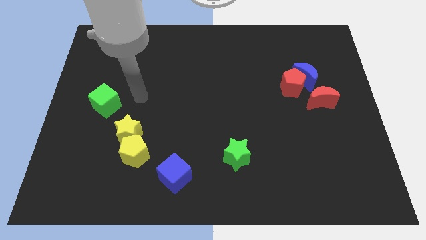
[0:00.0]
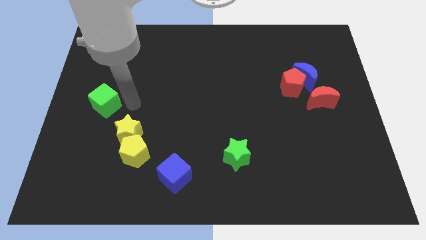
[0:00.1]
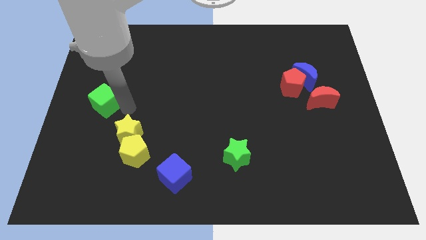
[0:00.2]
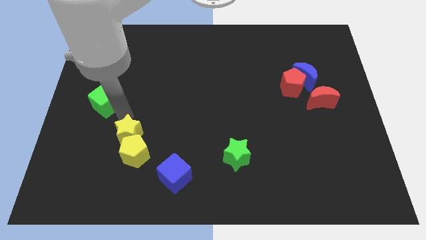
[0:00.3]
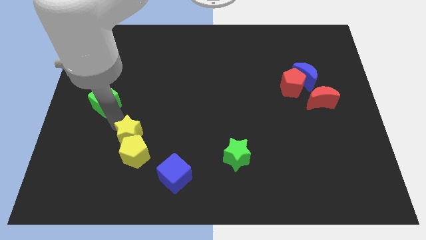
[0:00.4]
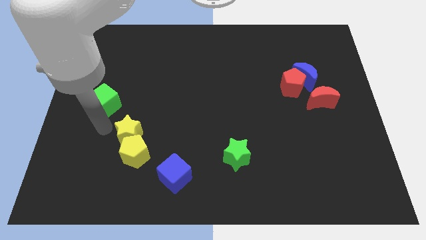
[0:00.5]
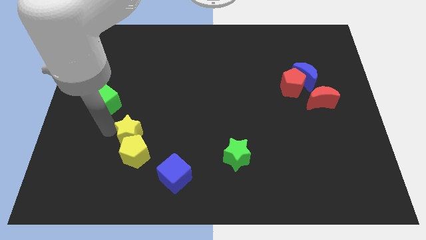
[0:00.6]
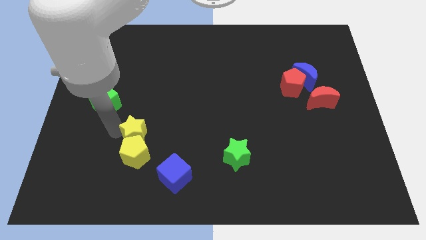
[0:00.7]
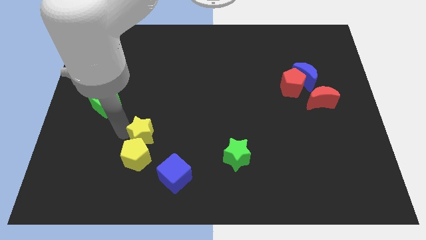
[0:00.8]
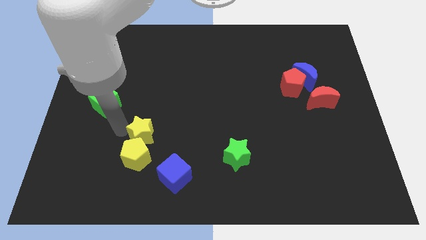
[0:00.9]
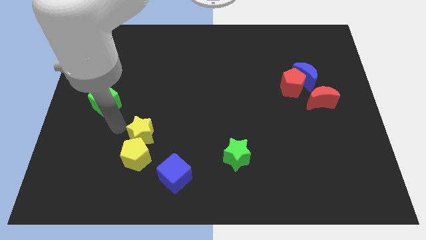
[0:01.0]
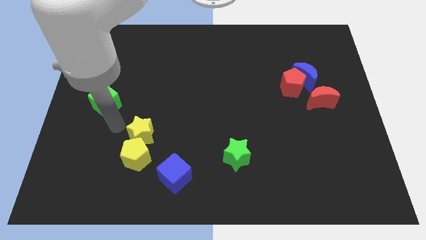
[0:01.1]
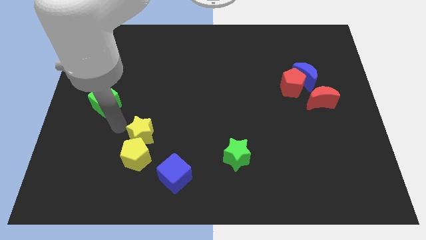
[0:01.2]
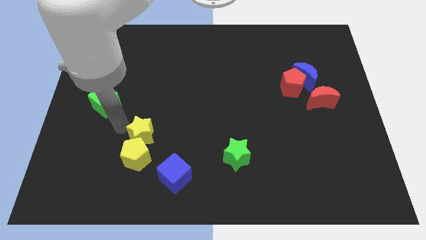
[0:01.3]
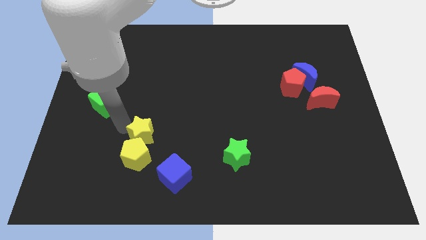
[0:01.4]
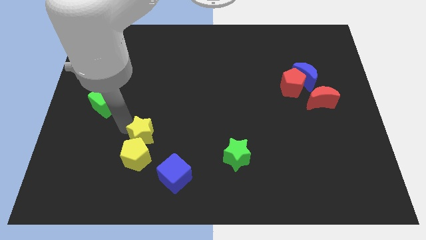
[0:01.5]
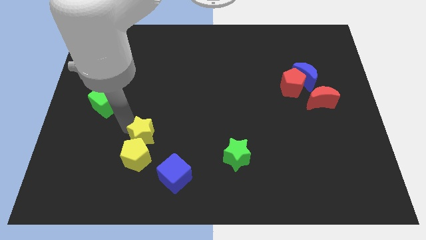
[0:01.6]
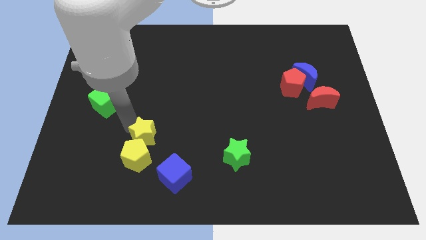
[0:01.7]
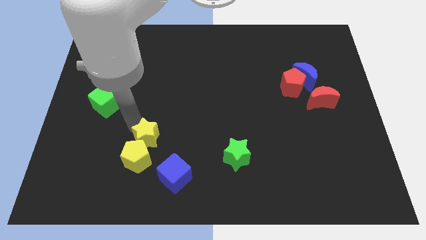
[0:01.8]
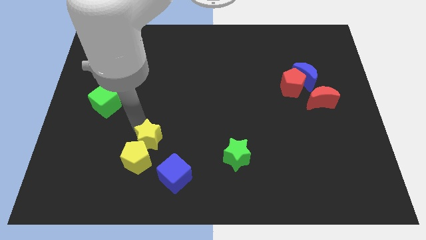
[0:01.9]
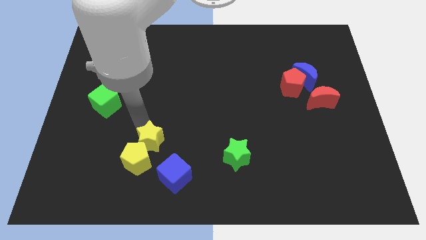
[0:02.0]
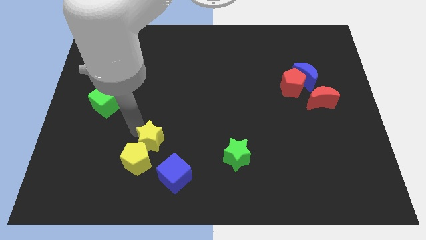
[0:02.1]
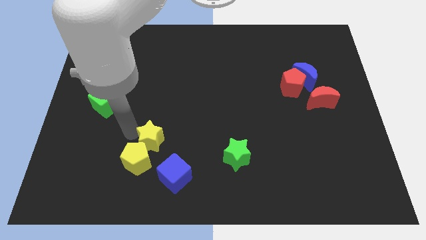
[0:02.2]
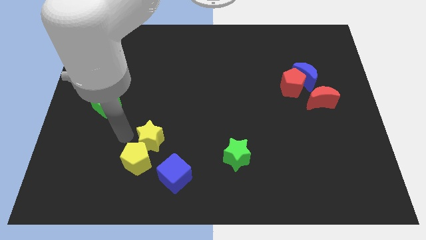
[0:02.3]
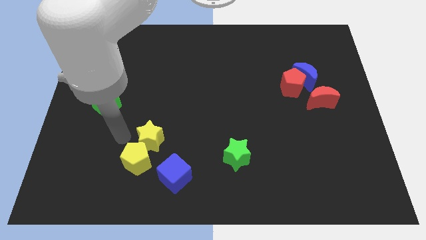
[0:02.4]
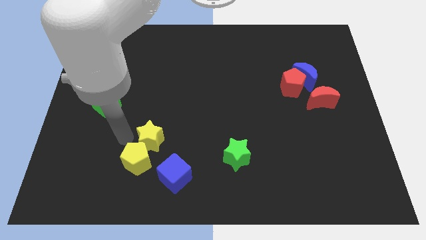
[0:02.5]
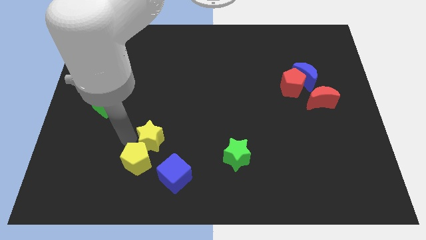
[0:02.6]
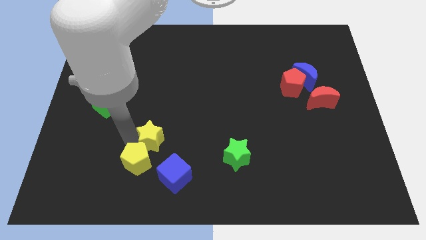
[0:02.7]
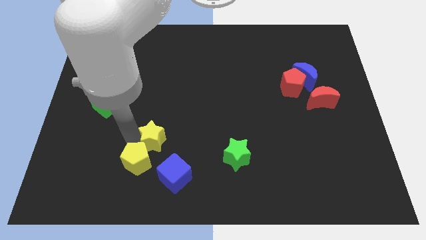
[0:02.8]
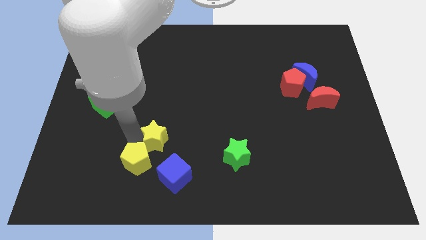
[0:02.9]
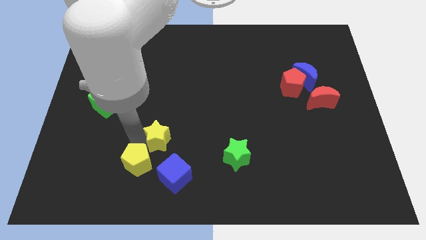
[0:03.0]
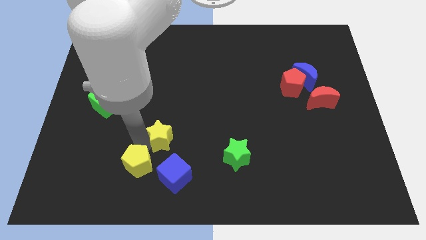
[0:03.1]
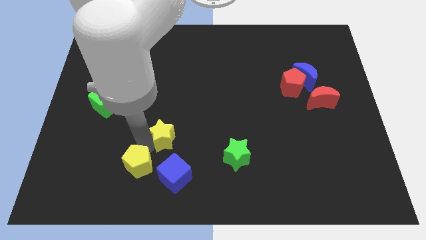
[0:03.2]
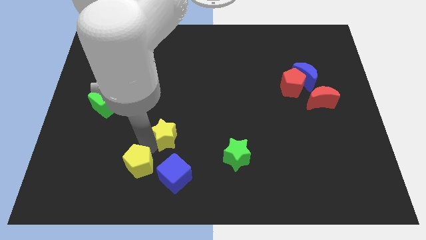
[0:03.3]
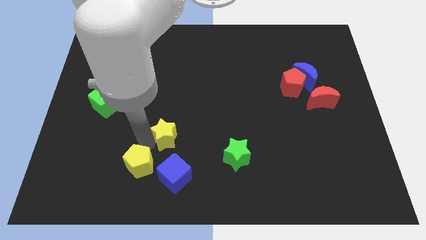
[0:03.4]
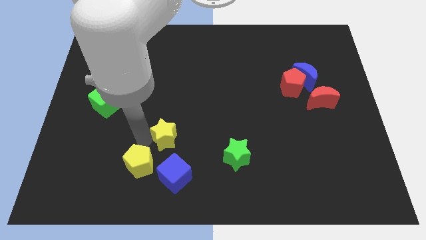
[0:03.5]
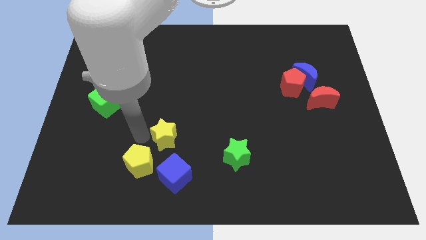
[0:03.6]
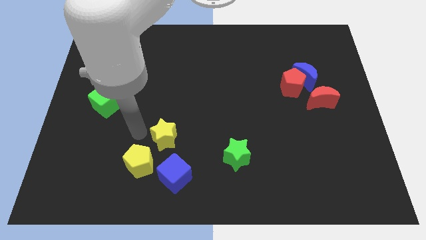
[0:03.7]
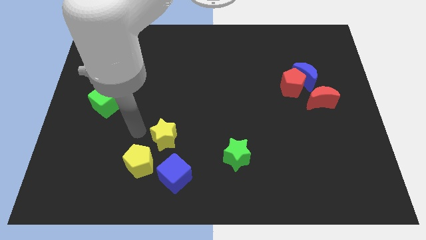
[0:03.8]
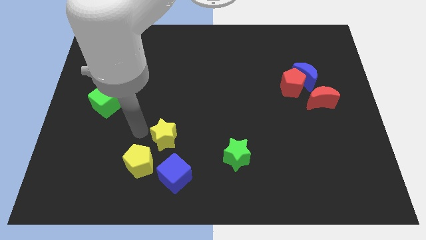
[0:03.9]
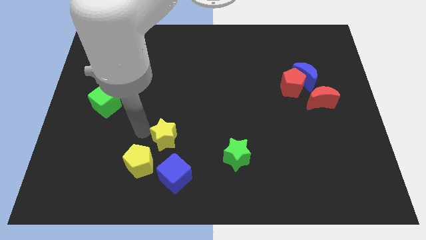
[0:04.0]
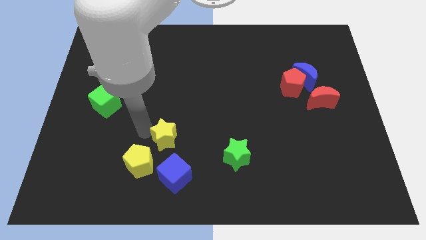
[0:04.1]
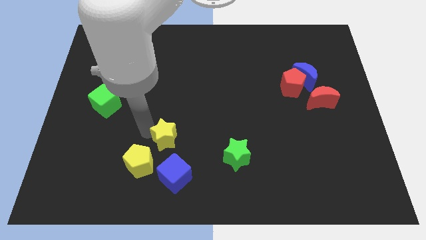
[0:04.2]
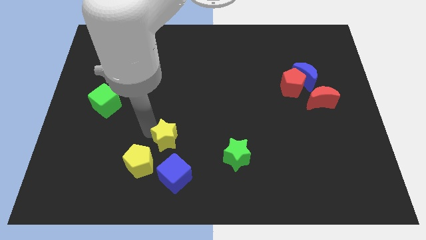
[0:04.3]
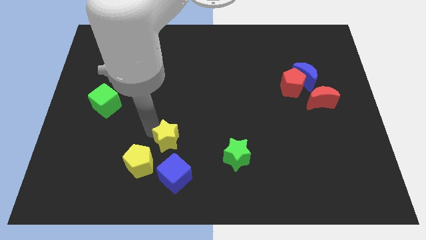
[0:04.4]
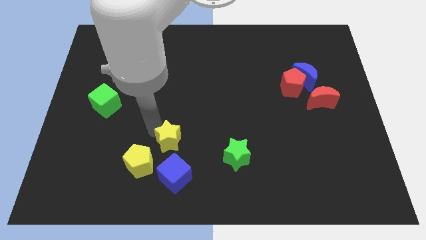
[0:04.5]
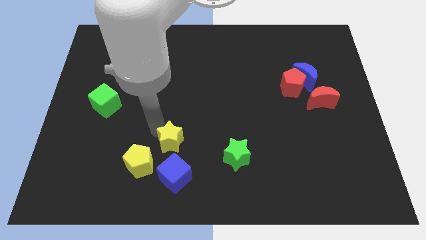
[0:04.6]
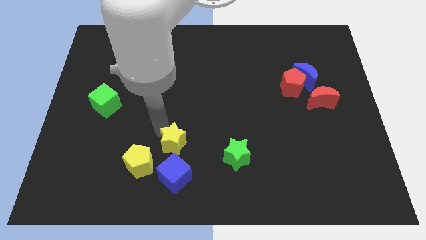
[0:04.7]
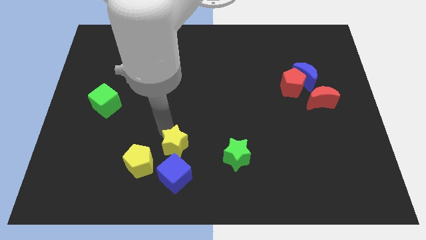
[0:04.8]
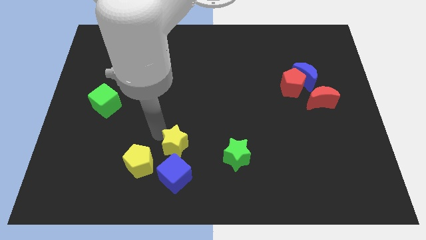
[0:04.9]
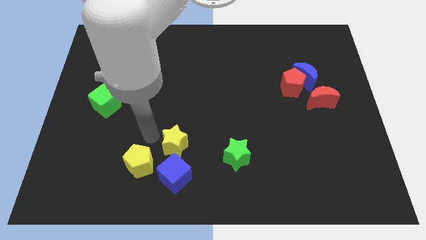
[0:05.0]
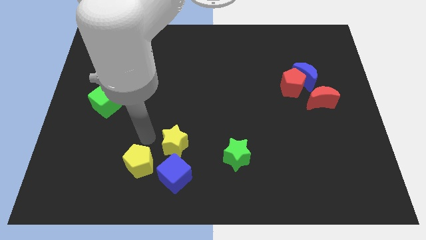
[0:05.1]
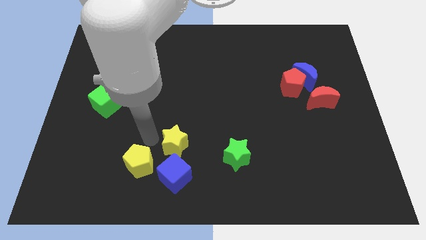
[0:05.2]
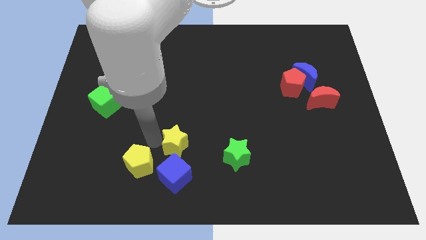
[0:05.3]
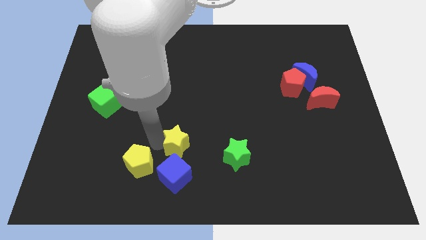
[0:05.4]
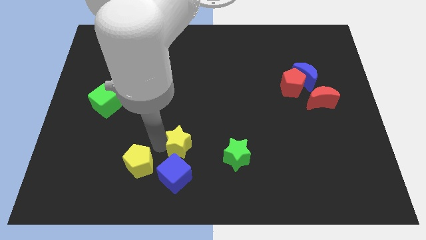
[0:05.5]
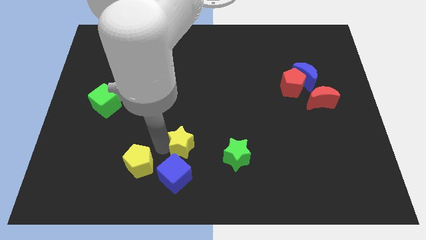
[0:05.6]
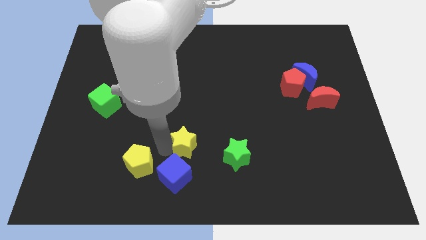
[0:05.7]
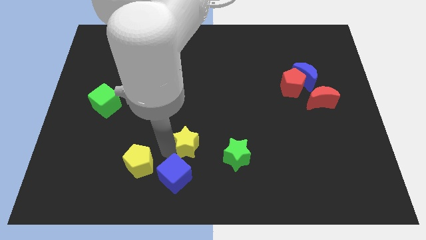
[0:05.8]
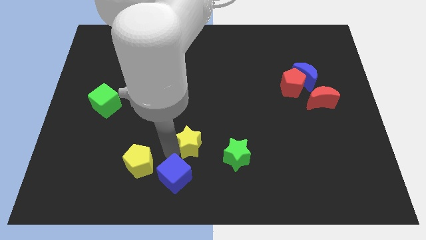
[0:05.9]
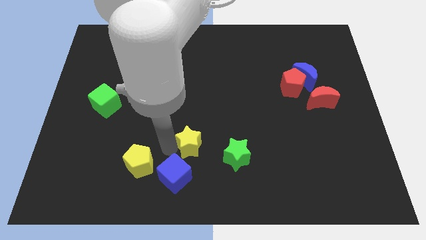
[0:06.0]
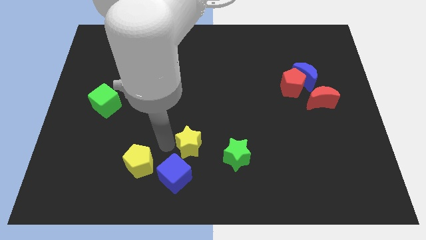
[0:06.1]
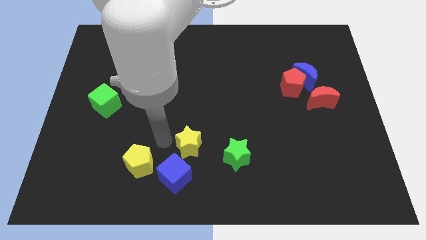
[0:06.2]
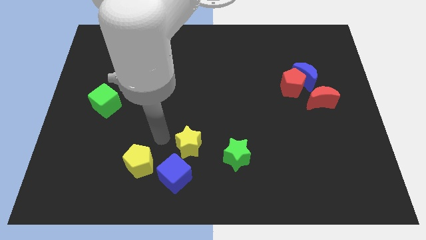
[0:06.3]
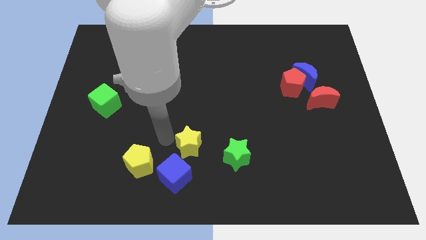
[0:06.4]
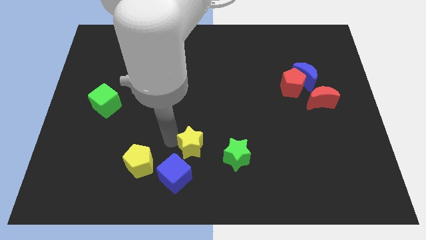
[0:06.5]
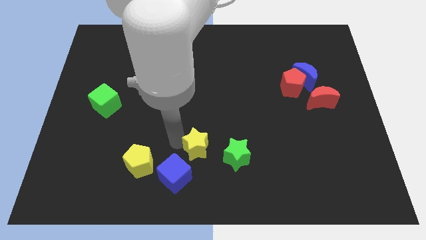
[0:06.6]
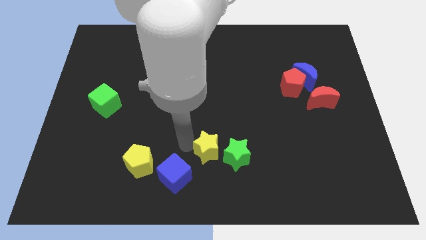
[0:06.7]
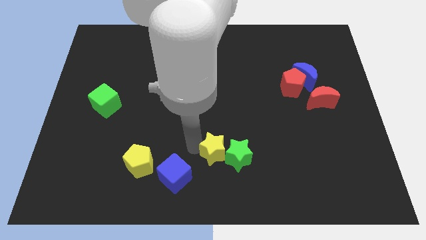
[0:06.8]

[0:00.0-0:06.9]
slide the yellow star to the green star
